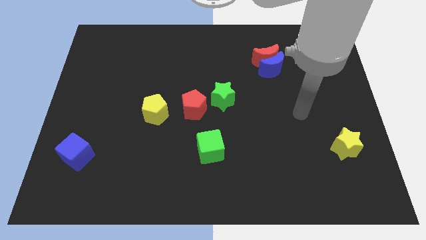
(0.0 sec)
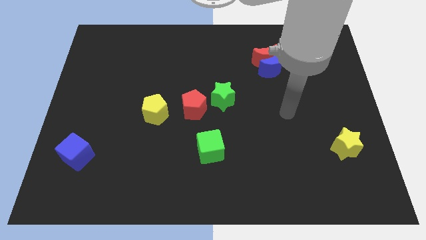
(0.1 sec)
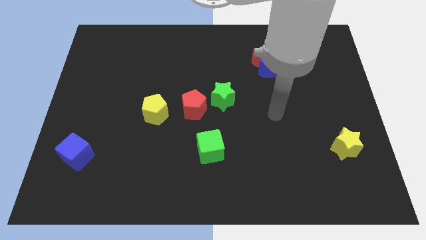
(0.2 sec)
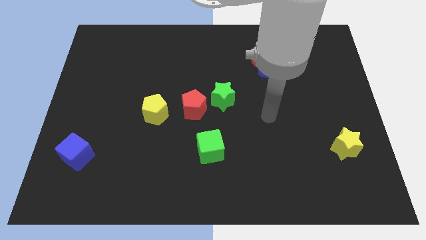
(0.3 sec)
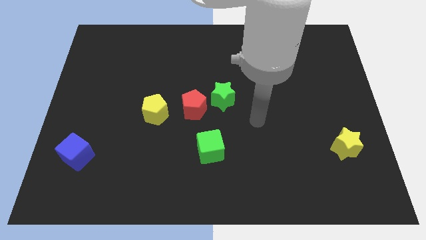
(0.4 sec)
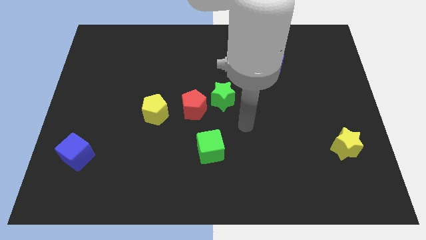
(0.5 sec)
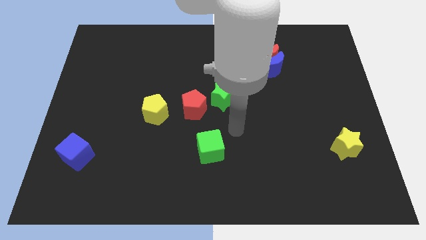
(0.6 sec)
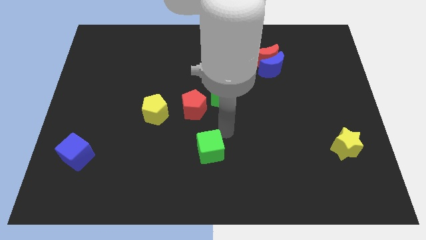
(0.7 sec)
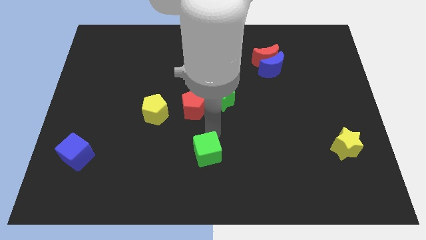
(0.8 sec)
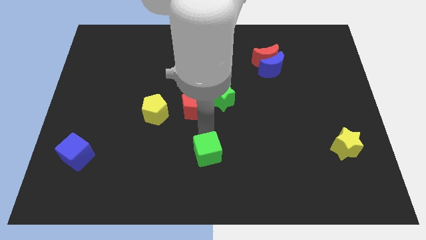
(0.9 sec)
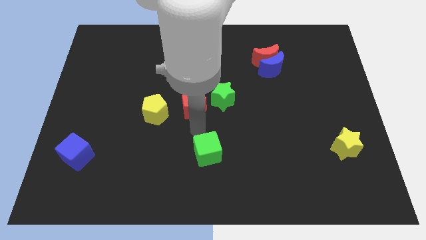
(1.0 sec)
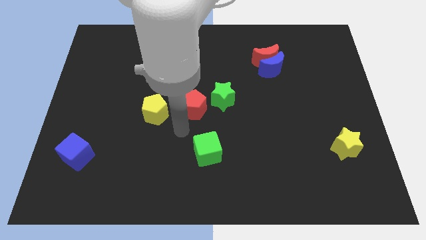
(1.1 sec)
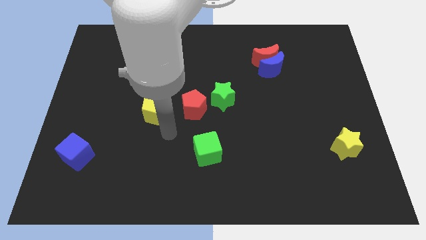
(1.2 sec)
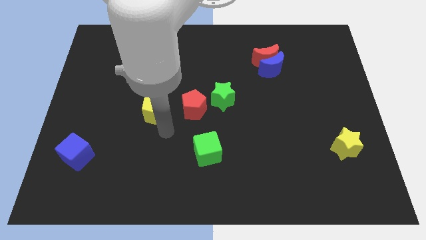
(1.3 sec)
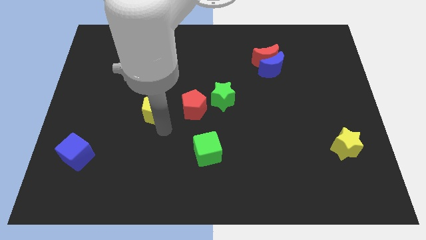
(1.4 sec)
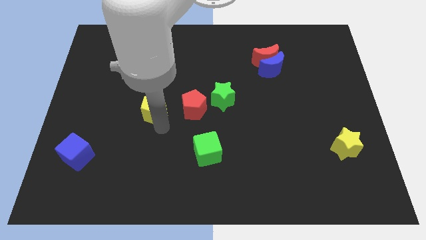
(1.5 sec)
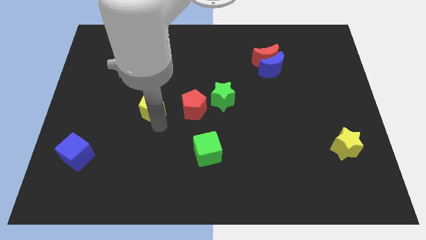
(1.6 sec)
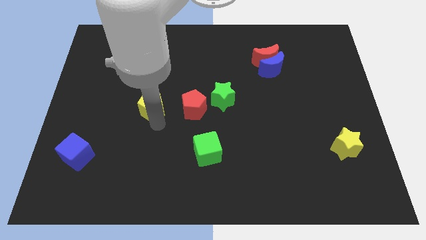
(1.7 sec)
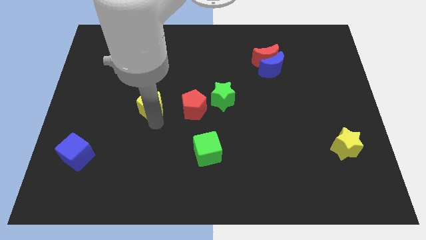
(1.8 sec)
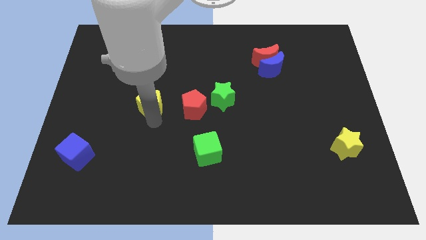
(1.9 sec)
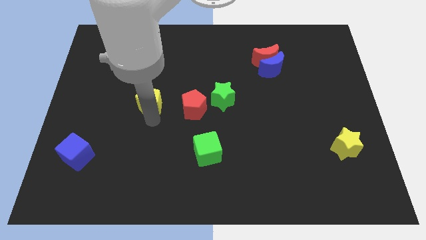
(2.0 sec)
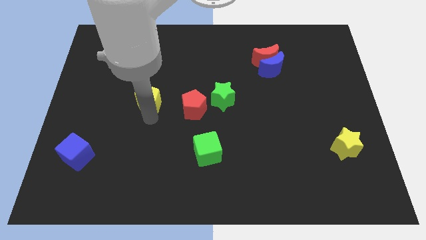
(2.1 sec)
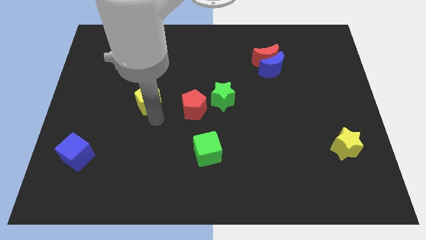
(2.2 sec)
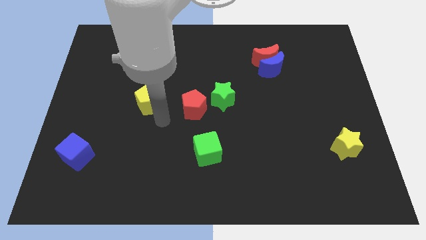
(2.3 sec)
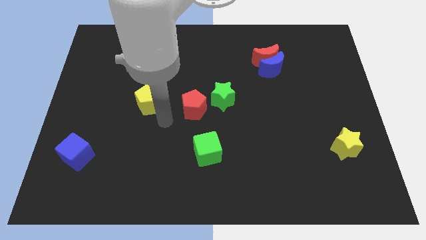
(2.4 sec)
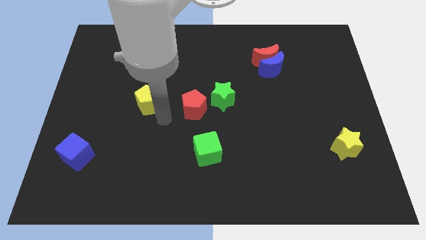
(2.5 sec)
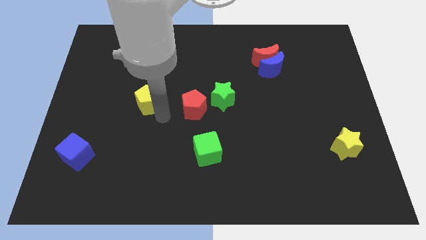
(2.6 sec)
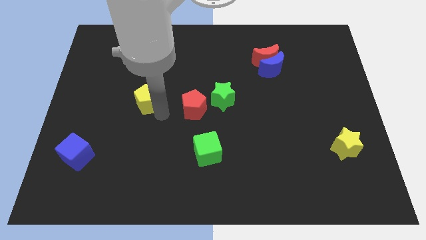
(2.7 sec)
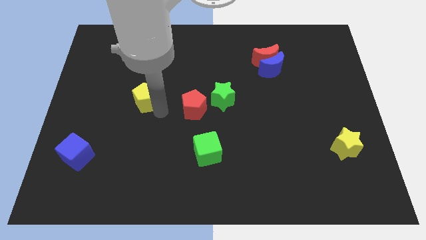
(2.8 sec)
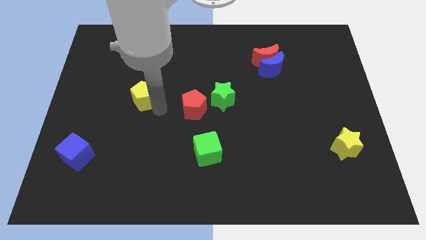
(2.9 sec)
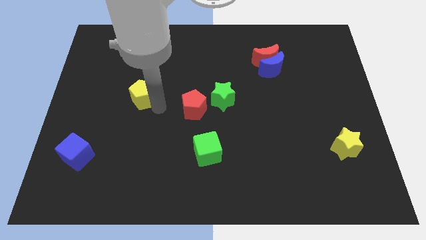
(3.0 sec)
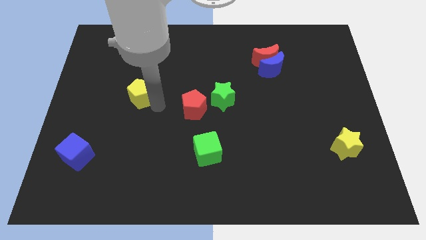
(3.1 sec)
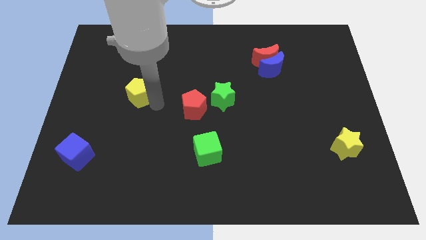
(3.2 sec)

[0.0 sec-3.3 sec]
slide the yellow pentagon up and left a little bit

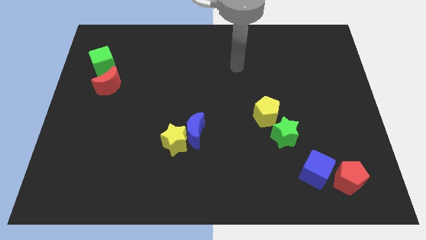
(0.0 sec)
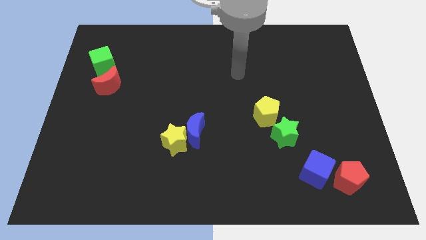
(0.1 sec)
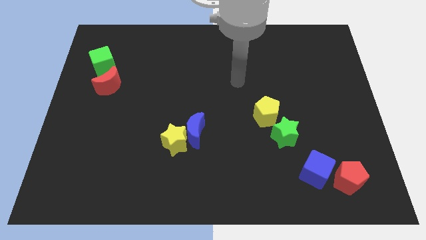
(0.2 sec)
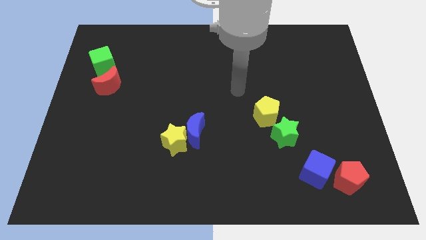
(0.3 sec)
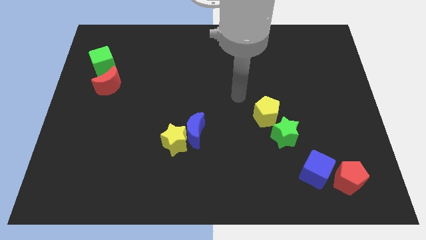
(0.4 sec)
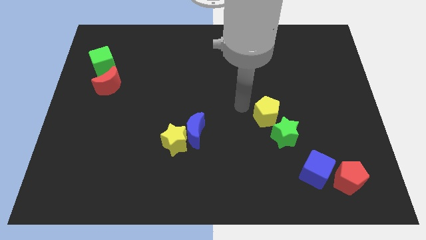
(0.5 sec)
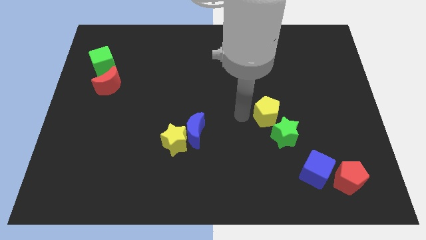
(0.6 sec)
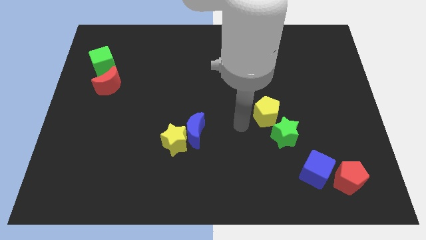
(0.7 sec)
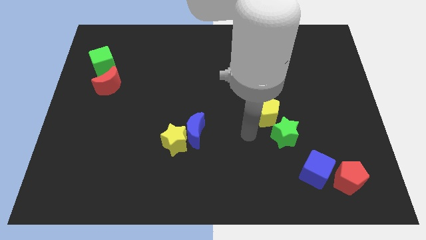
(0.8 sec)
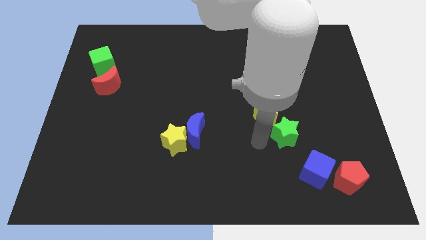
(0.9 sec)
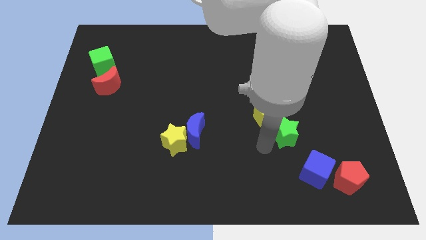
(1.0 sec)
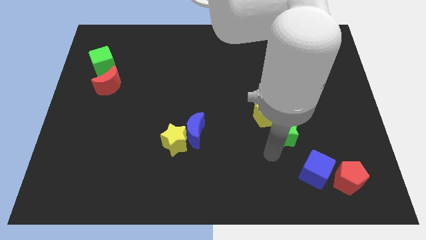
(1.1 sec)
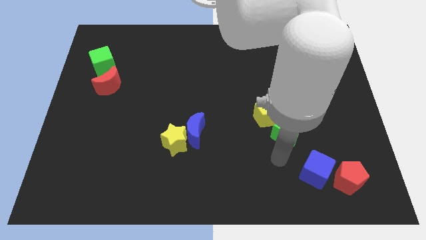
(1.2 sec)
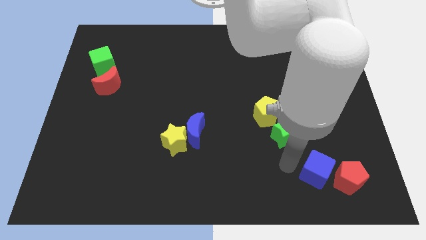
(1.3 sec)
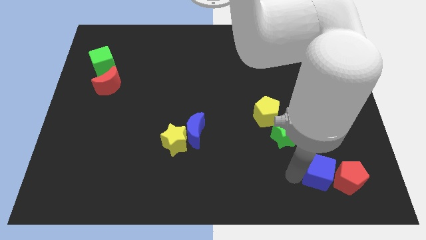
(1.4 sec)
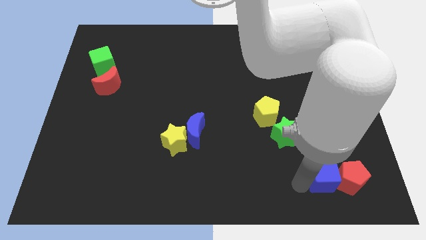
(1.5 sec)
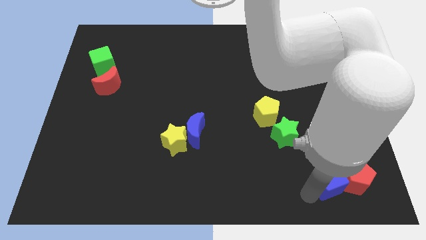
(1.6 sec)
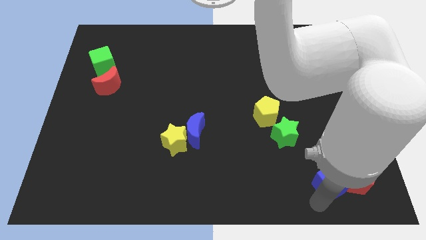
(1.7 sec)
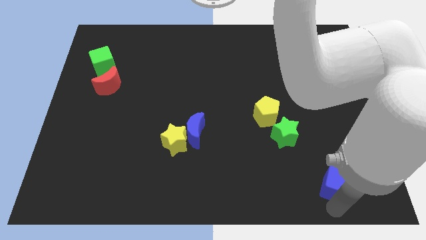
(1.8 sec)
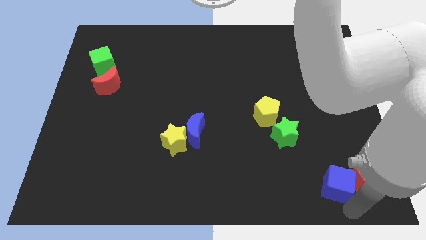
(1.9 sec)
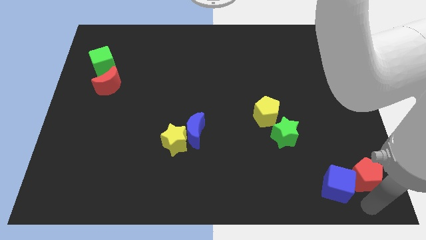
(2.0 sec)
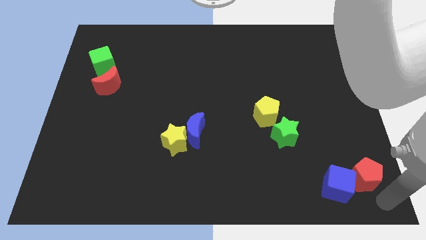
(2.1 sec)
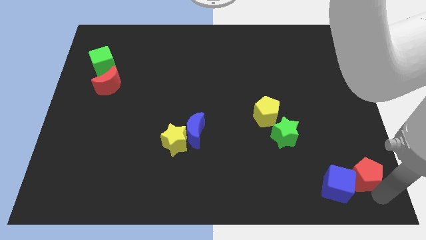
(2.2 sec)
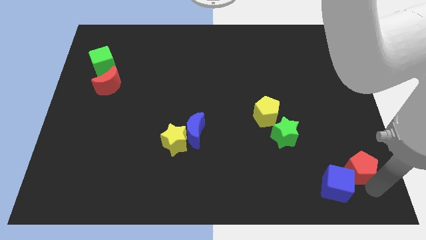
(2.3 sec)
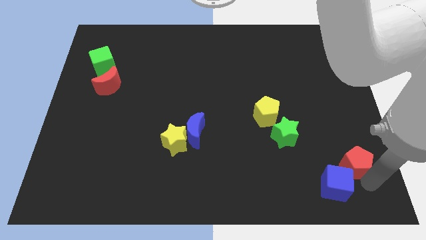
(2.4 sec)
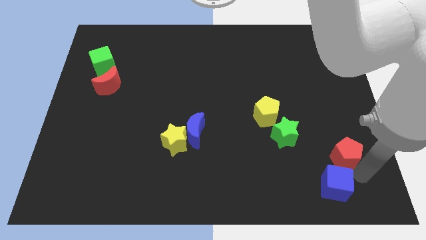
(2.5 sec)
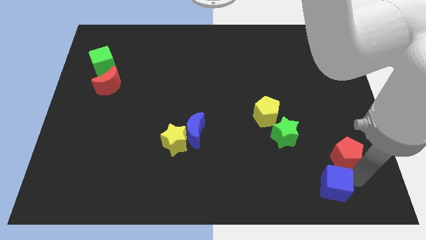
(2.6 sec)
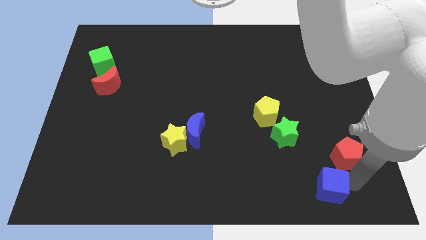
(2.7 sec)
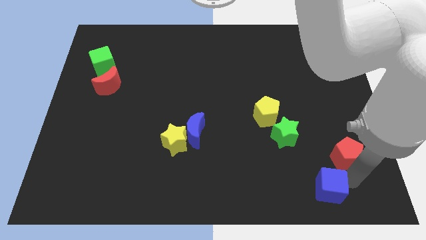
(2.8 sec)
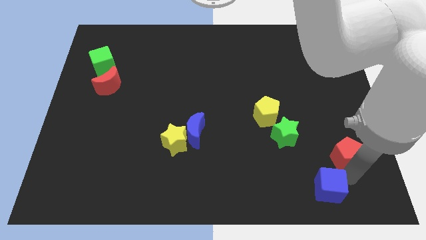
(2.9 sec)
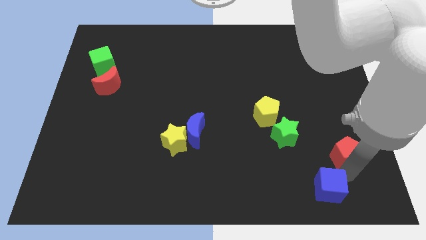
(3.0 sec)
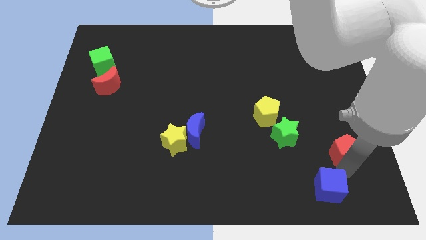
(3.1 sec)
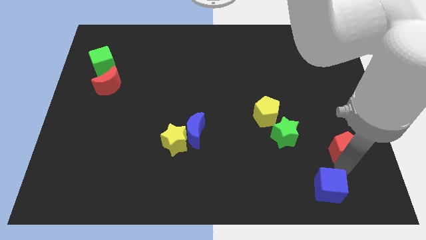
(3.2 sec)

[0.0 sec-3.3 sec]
slightly move the red pentagon up

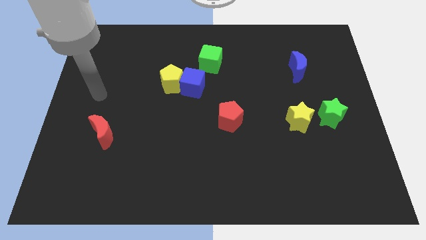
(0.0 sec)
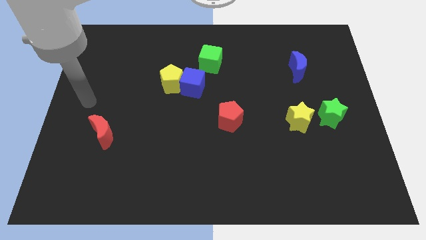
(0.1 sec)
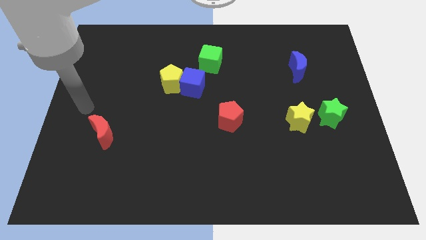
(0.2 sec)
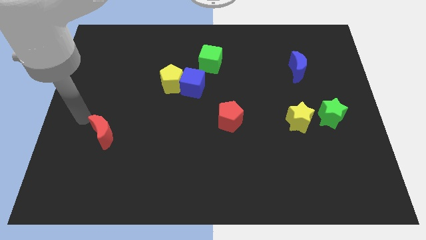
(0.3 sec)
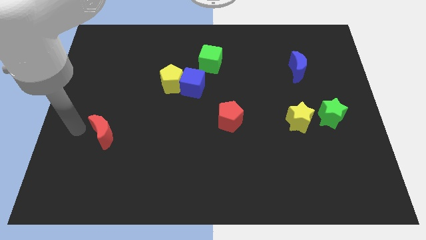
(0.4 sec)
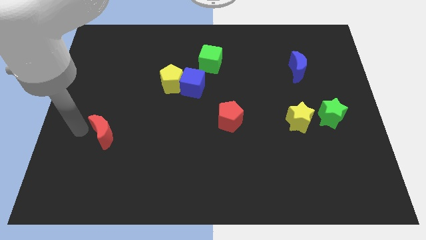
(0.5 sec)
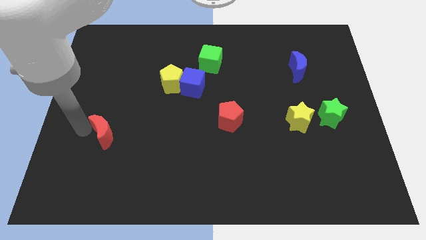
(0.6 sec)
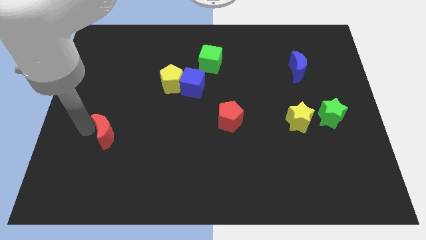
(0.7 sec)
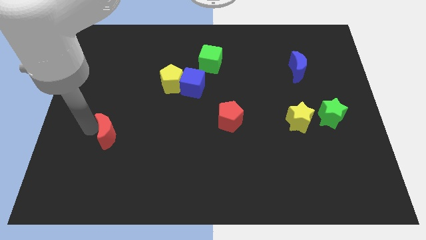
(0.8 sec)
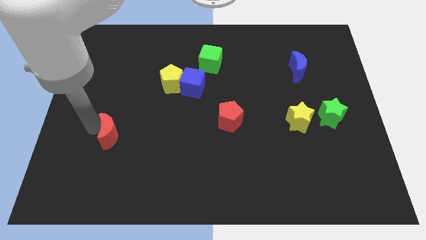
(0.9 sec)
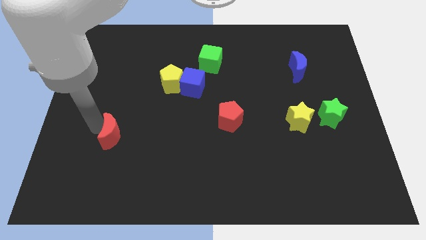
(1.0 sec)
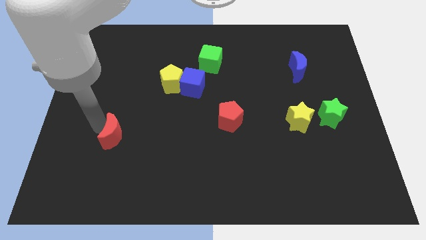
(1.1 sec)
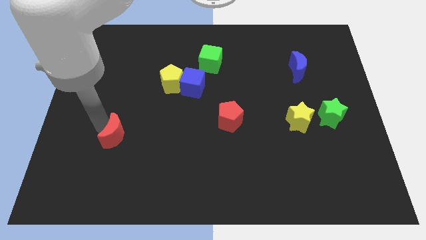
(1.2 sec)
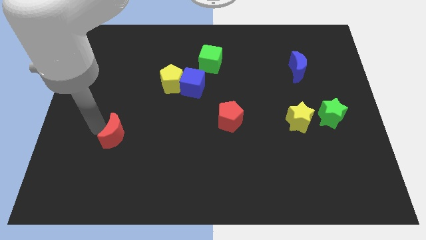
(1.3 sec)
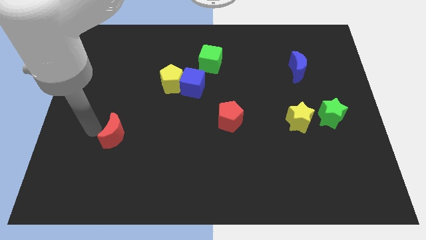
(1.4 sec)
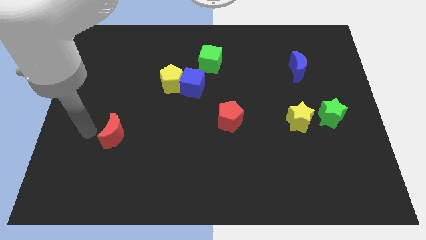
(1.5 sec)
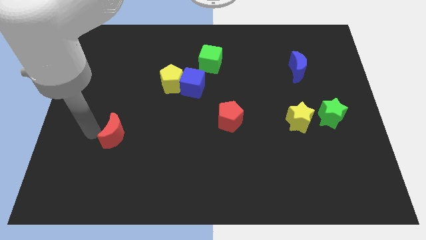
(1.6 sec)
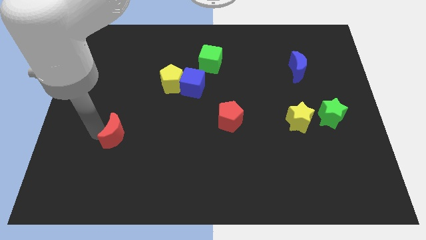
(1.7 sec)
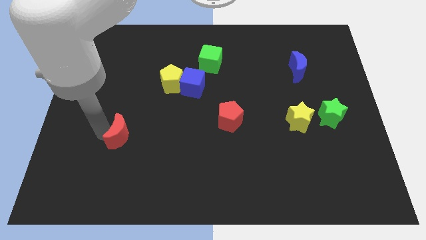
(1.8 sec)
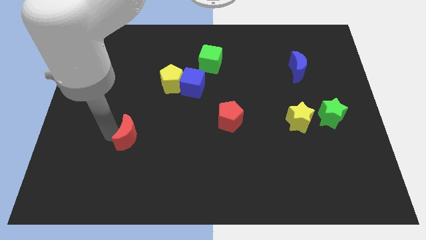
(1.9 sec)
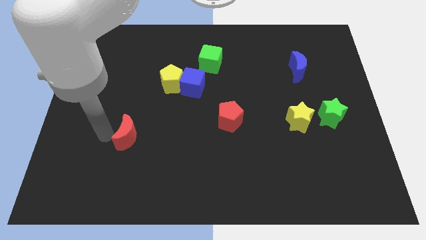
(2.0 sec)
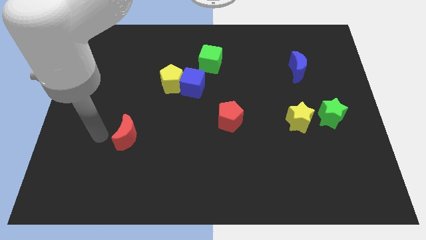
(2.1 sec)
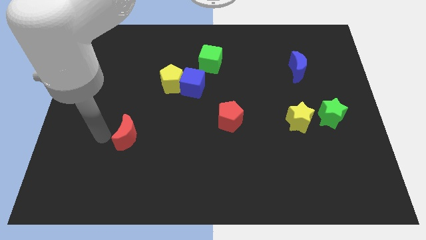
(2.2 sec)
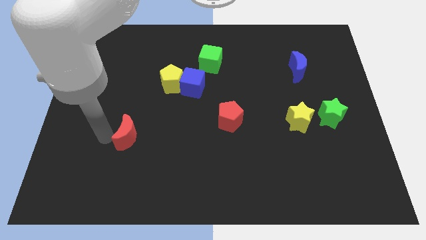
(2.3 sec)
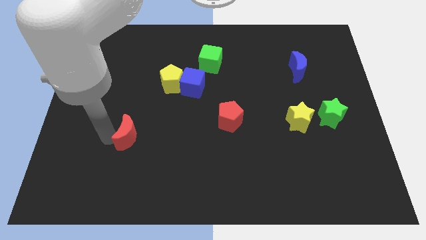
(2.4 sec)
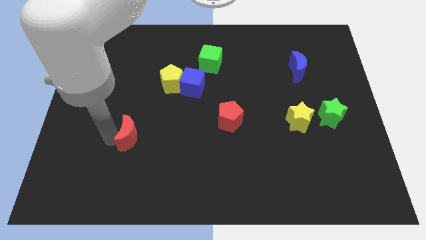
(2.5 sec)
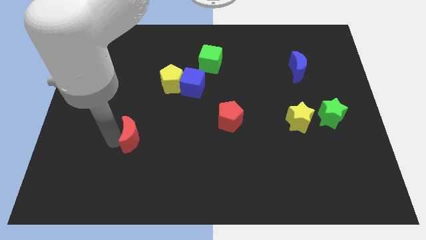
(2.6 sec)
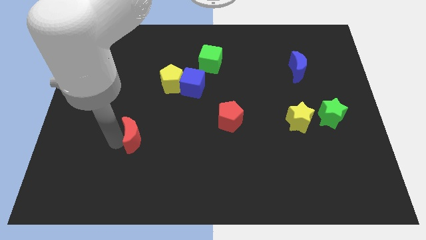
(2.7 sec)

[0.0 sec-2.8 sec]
slightly move the red moon right
